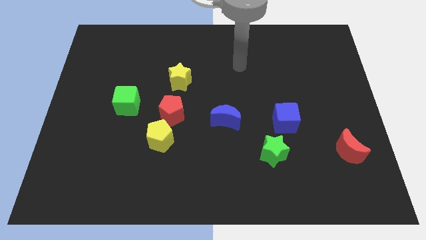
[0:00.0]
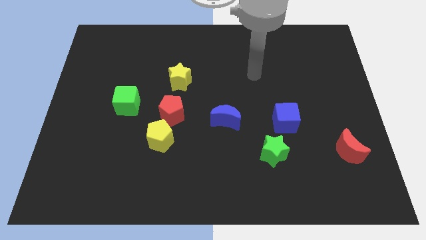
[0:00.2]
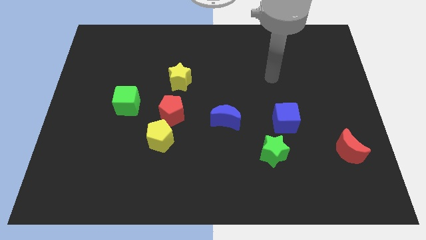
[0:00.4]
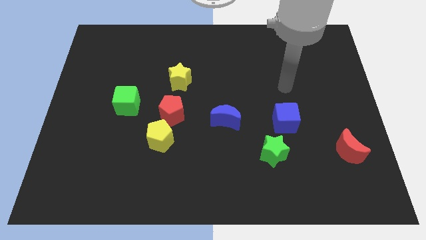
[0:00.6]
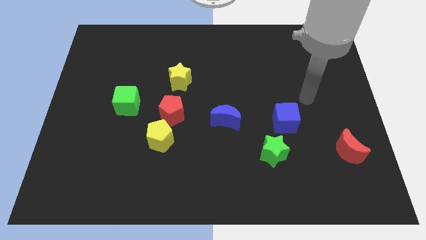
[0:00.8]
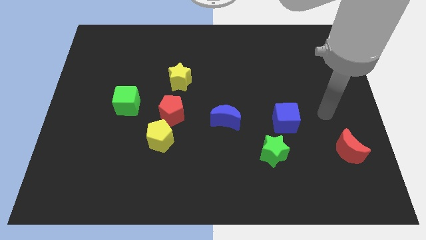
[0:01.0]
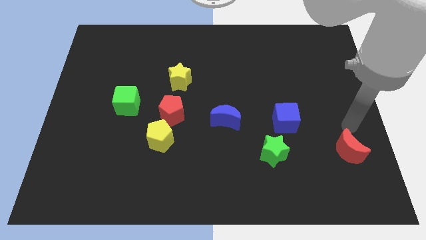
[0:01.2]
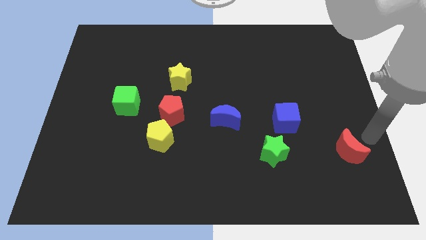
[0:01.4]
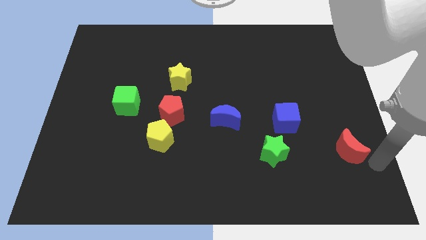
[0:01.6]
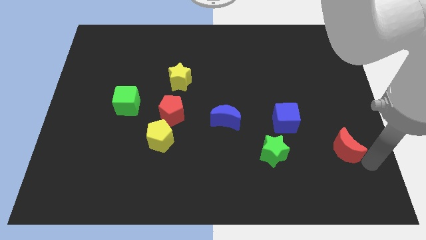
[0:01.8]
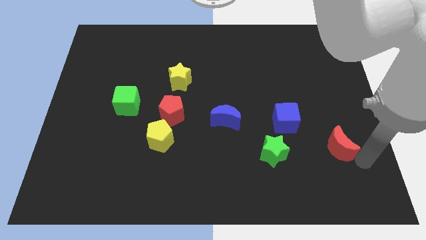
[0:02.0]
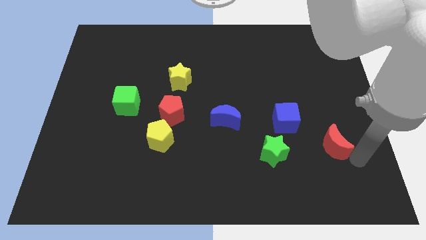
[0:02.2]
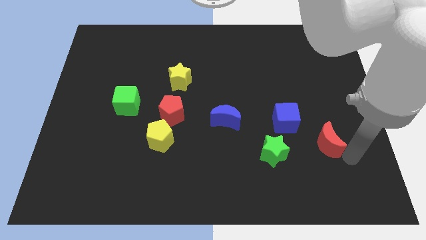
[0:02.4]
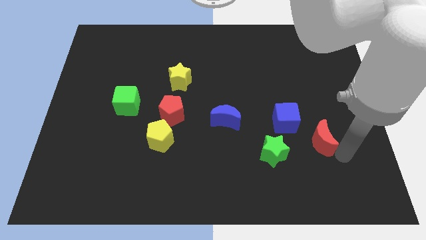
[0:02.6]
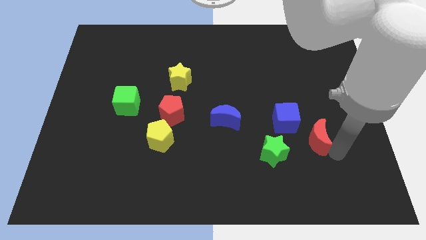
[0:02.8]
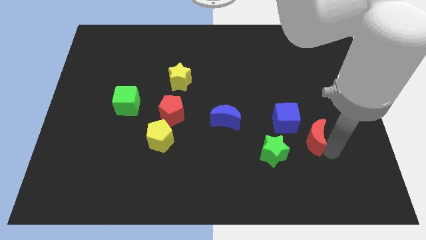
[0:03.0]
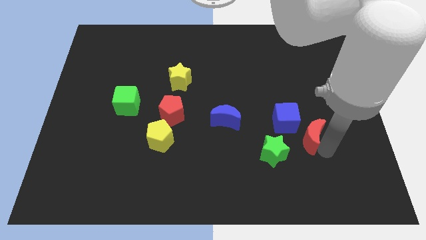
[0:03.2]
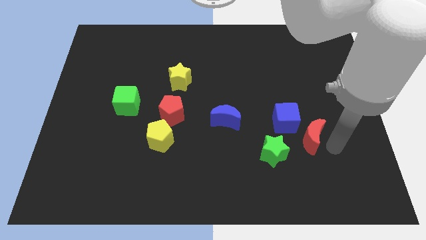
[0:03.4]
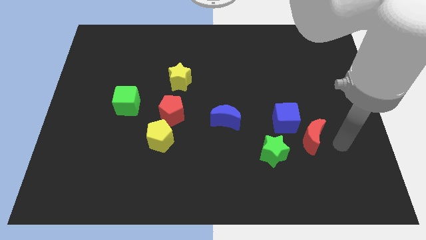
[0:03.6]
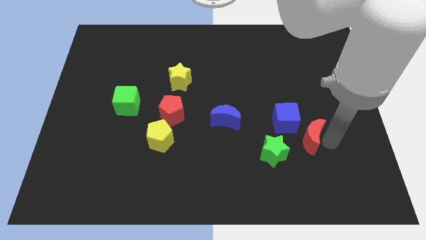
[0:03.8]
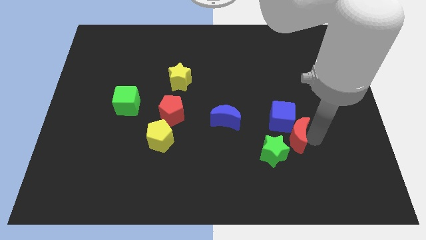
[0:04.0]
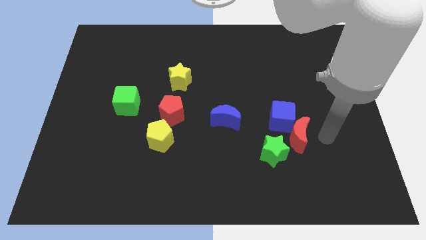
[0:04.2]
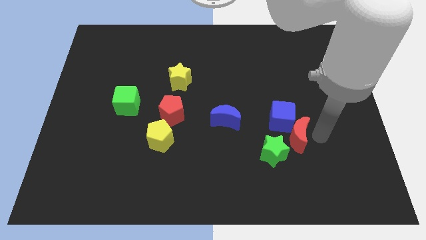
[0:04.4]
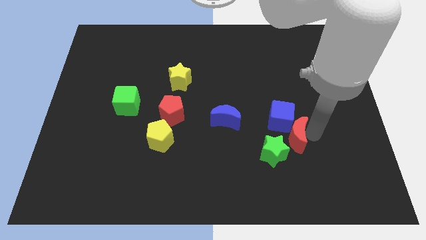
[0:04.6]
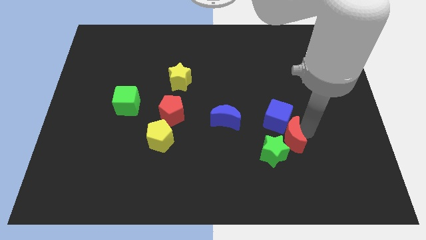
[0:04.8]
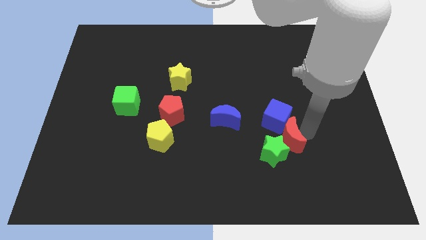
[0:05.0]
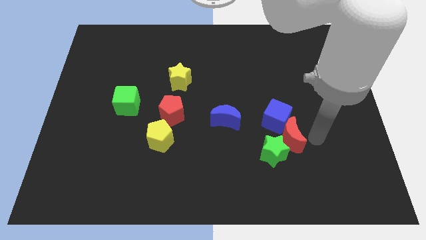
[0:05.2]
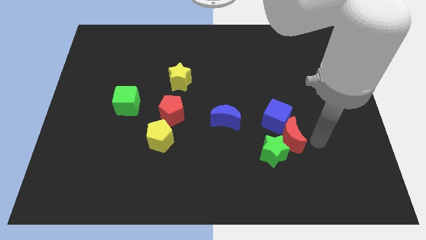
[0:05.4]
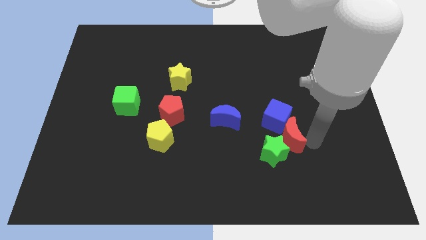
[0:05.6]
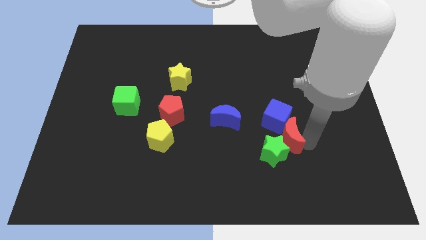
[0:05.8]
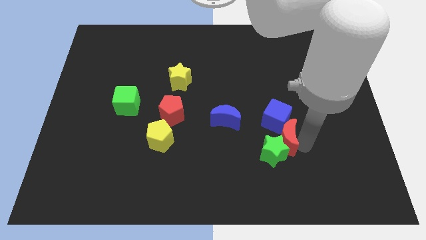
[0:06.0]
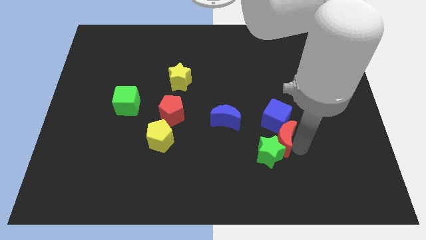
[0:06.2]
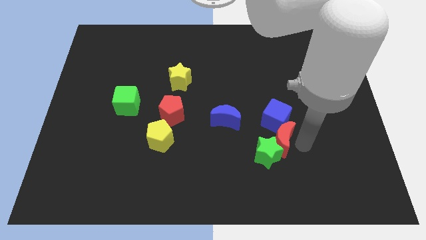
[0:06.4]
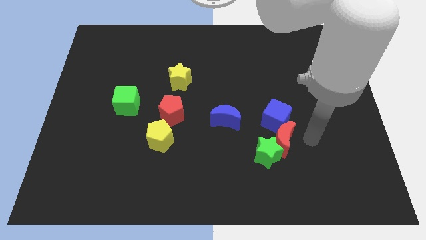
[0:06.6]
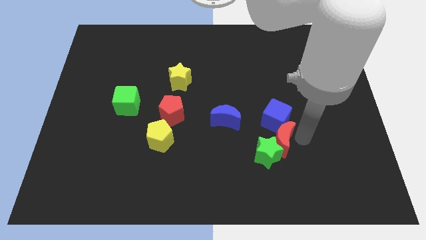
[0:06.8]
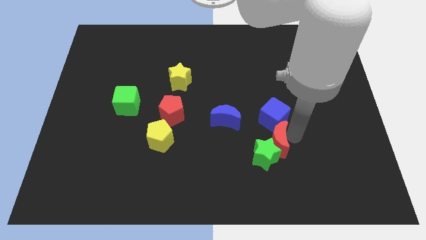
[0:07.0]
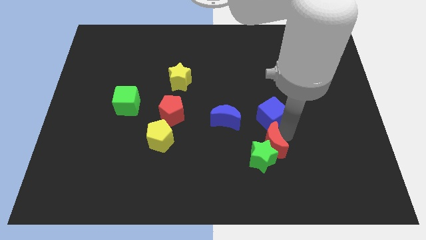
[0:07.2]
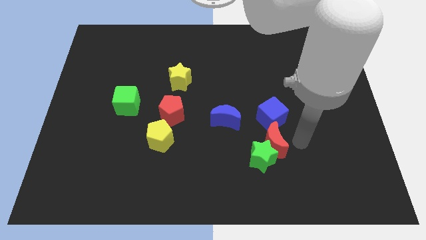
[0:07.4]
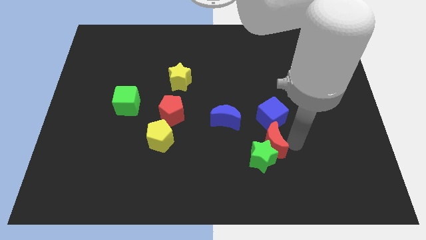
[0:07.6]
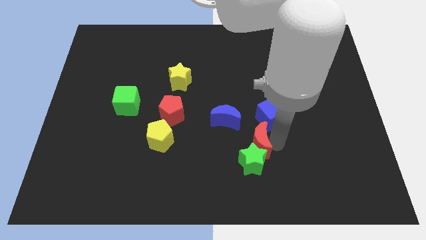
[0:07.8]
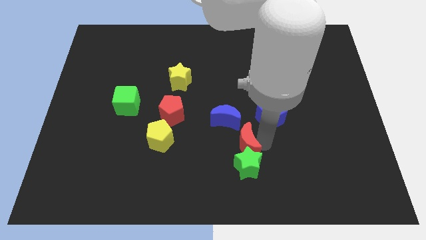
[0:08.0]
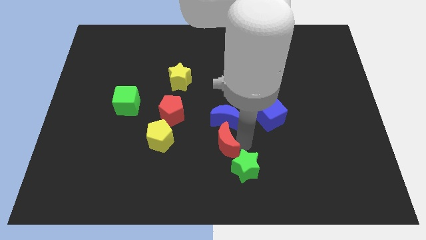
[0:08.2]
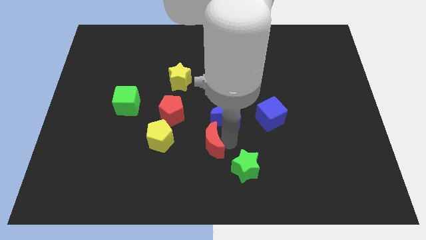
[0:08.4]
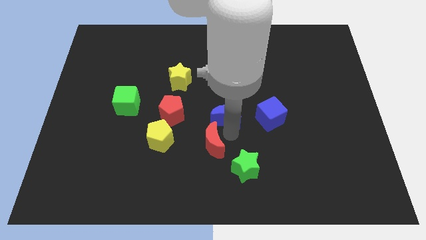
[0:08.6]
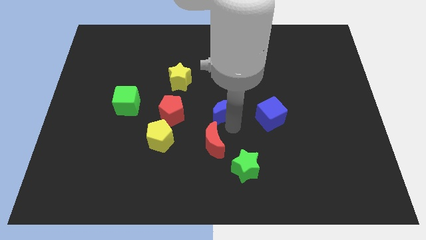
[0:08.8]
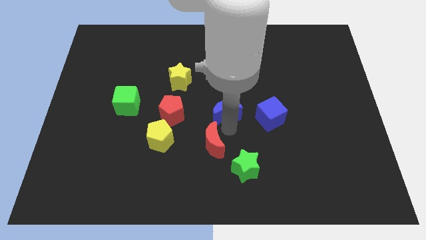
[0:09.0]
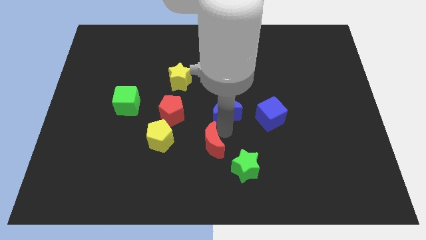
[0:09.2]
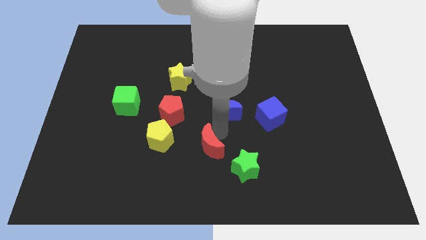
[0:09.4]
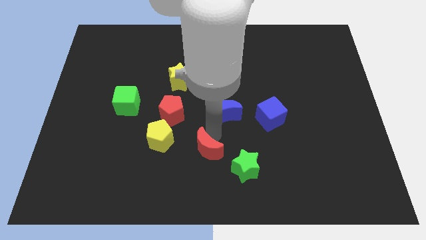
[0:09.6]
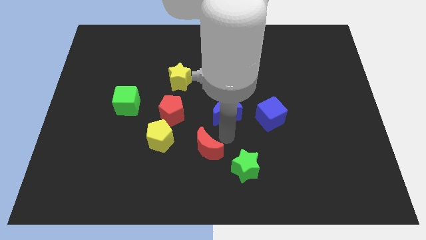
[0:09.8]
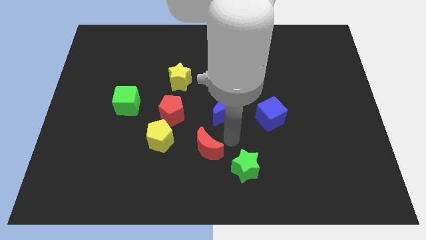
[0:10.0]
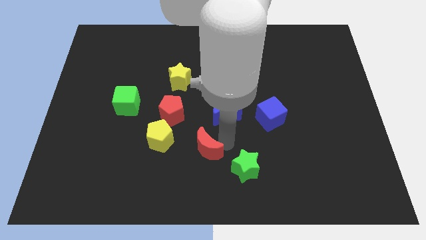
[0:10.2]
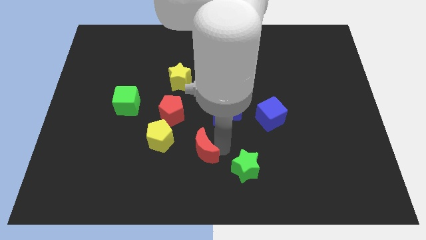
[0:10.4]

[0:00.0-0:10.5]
slide the red moon to the bottom right of the yellow pentagon

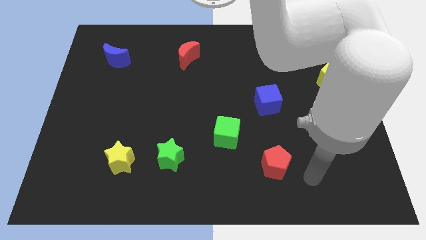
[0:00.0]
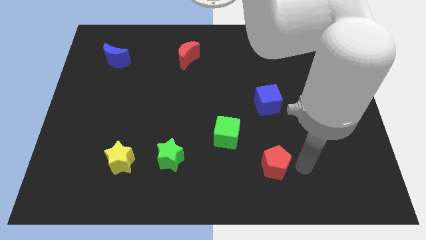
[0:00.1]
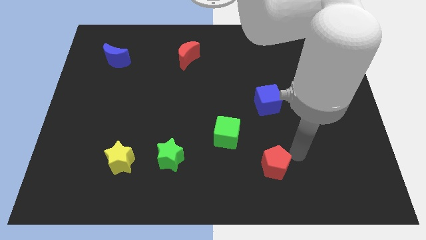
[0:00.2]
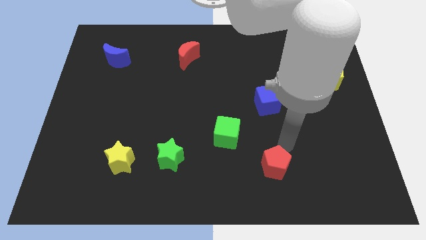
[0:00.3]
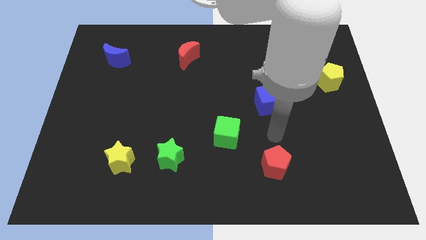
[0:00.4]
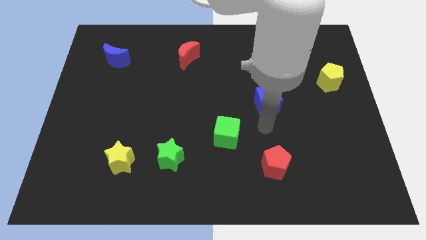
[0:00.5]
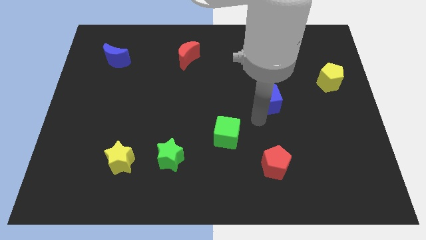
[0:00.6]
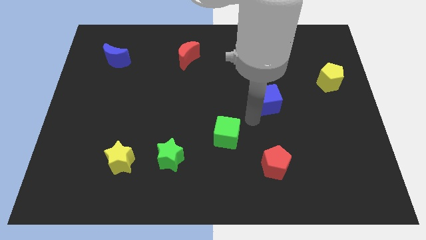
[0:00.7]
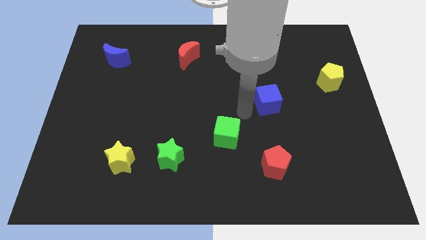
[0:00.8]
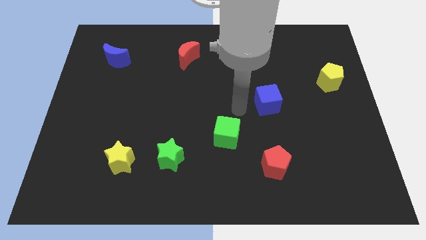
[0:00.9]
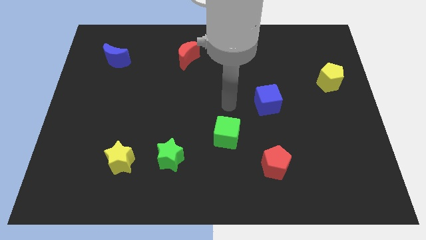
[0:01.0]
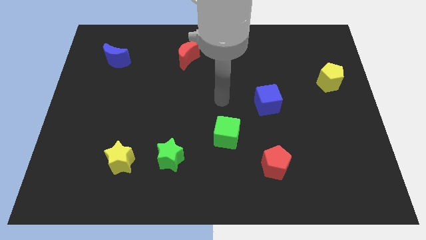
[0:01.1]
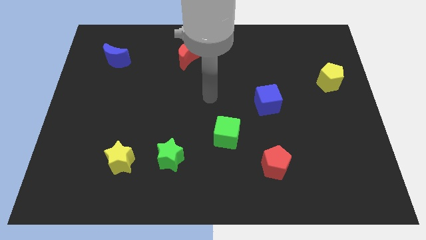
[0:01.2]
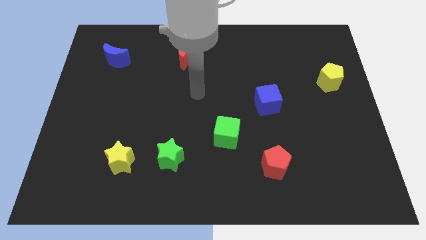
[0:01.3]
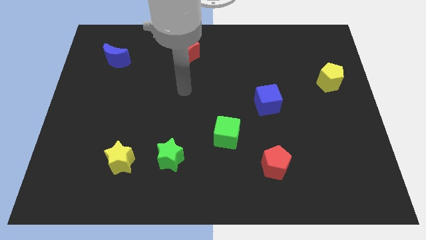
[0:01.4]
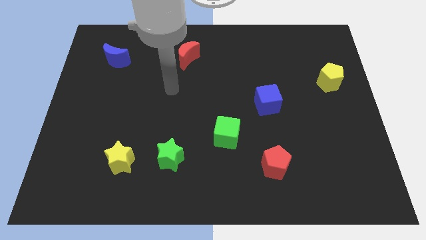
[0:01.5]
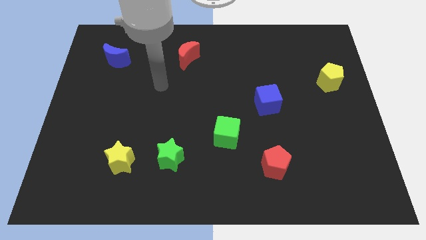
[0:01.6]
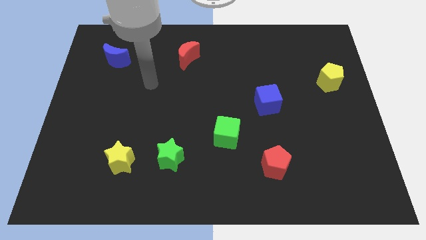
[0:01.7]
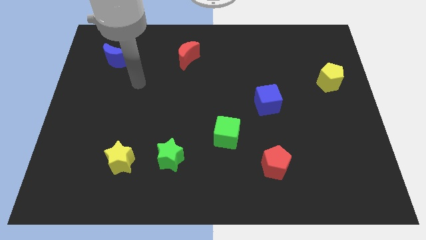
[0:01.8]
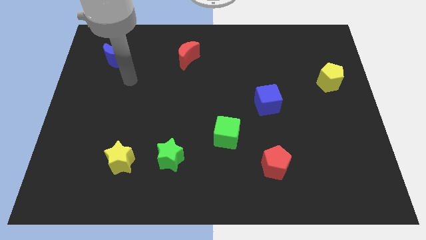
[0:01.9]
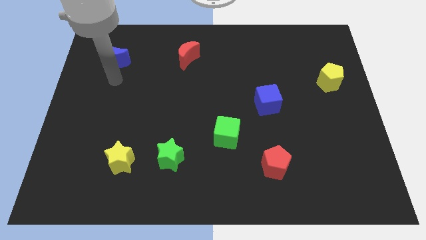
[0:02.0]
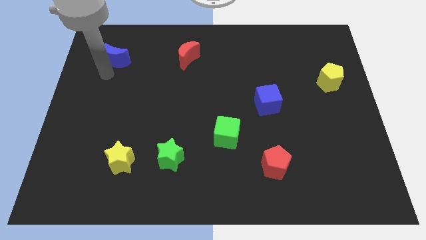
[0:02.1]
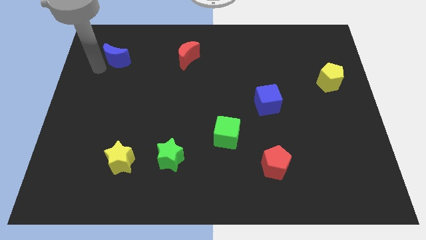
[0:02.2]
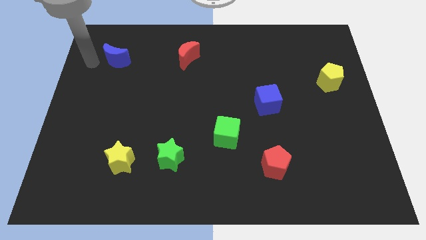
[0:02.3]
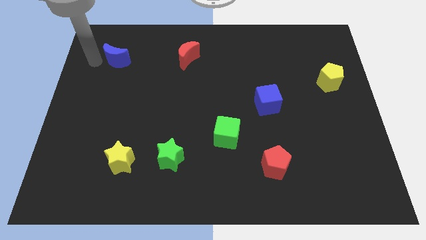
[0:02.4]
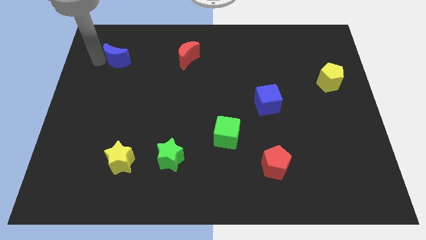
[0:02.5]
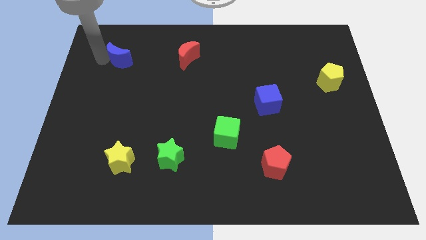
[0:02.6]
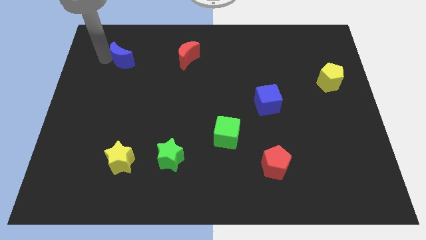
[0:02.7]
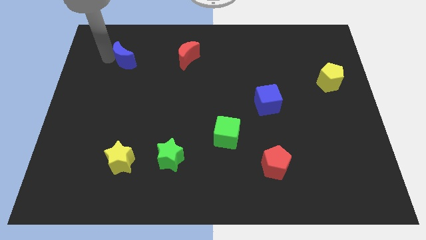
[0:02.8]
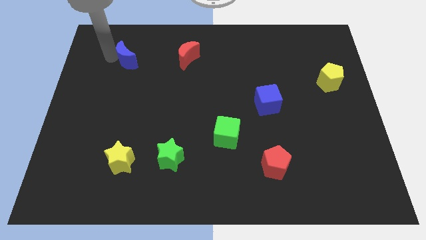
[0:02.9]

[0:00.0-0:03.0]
put the blue moon left of the red moon
